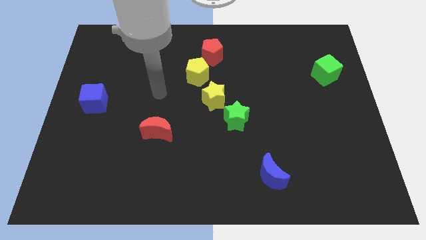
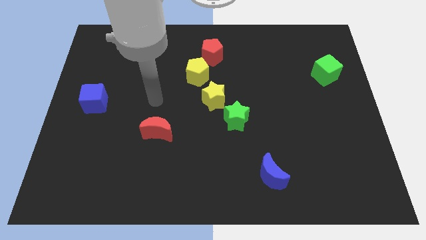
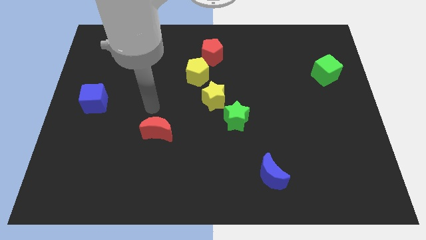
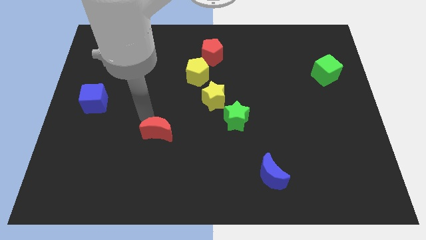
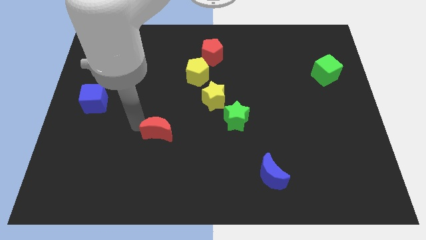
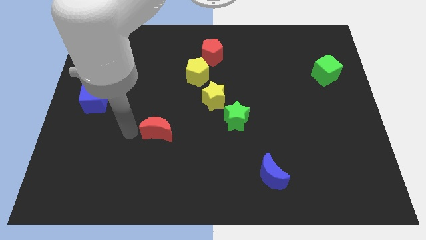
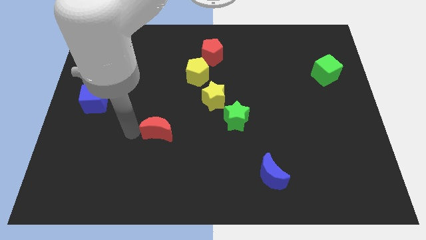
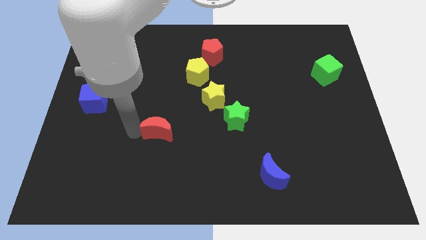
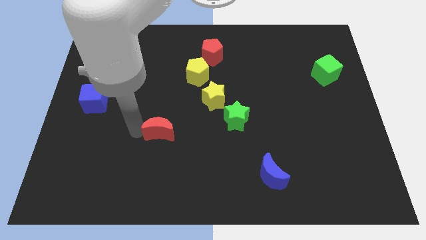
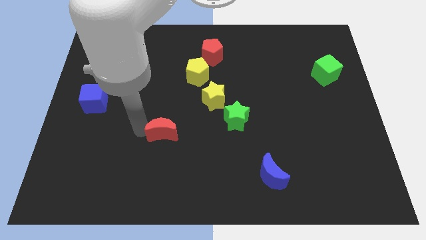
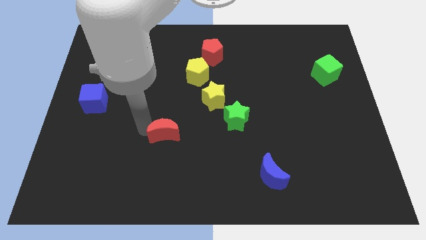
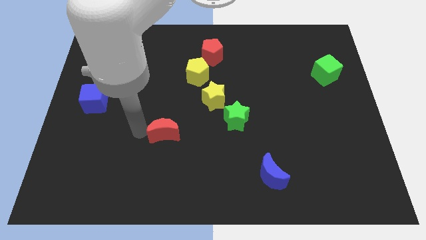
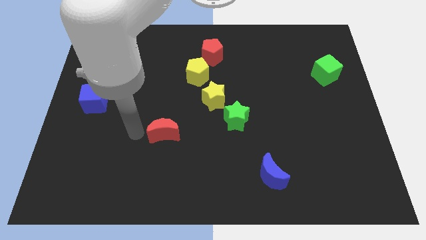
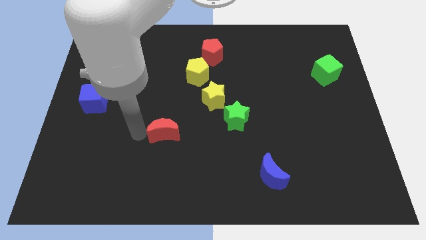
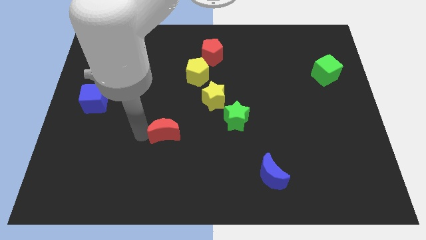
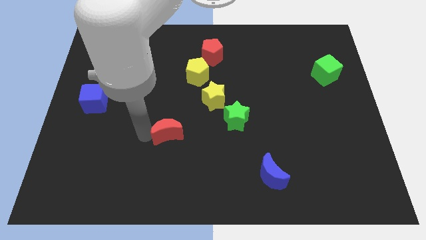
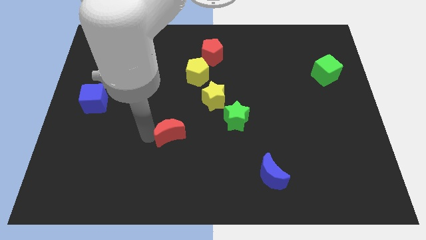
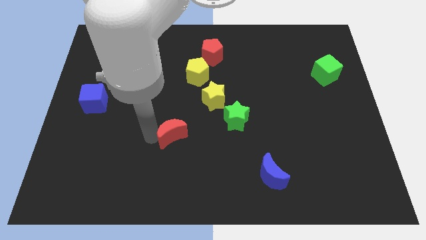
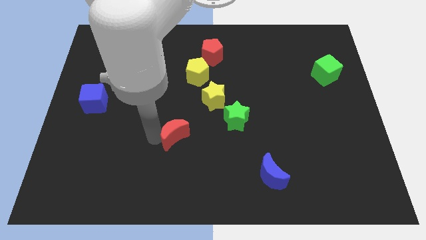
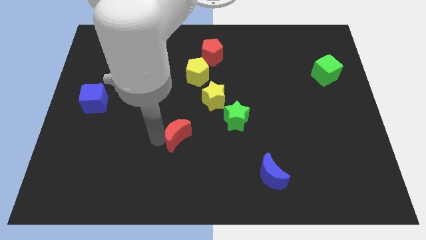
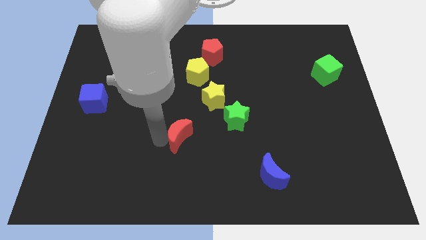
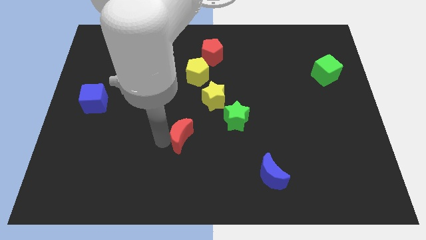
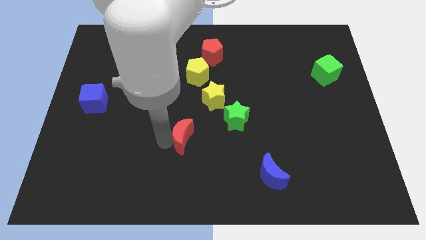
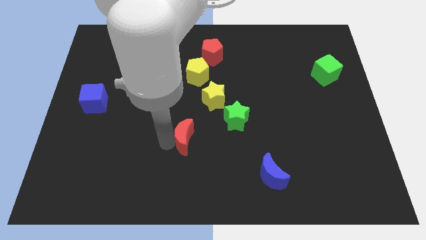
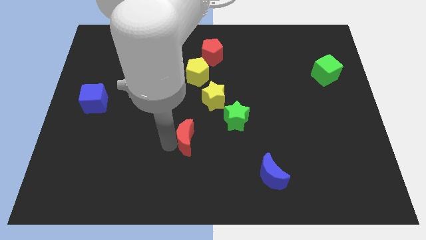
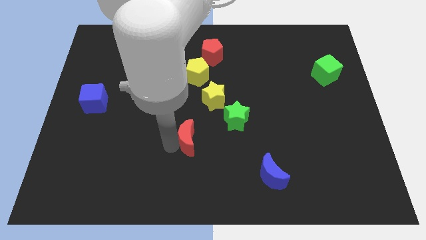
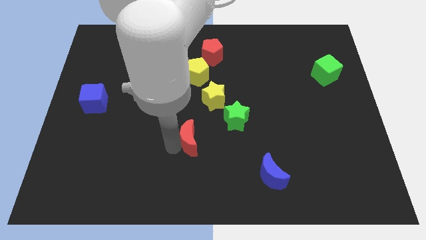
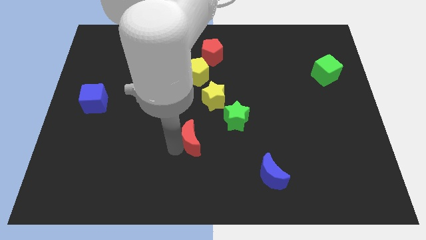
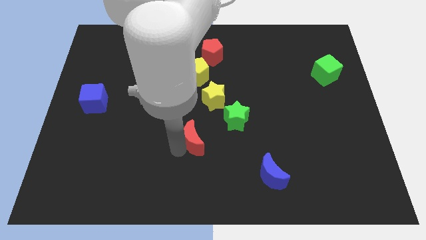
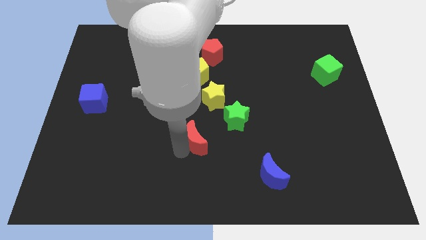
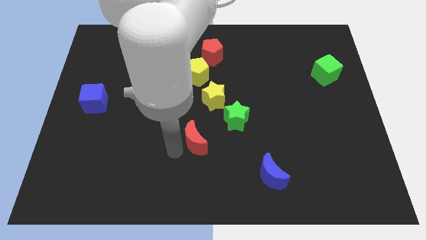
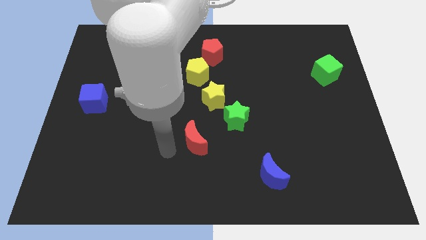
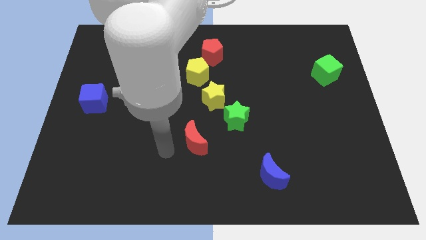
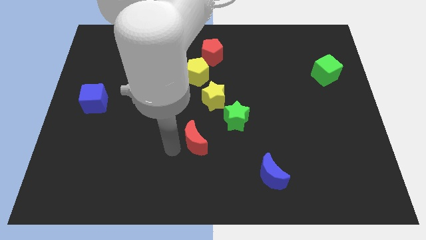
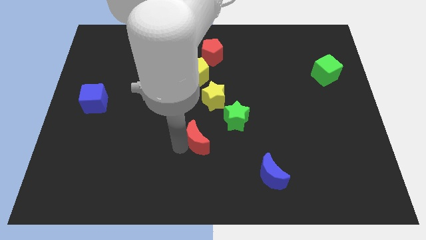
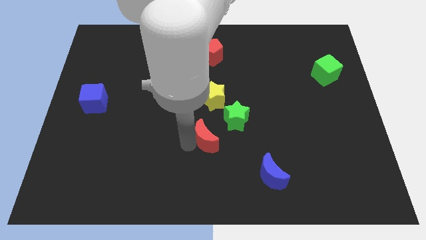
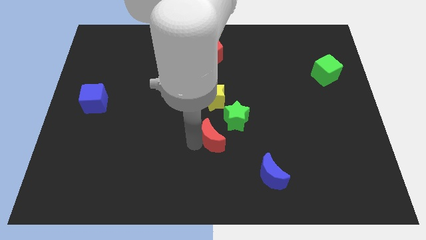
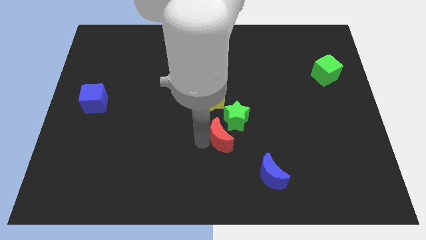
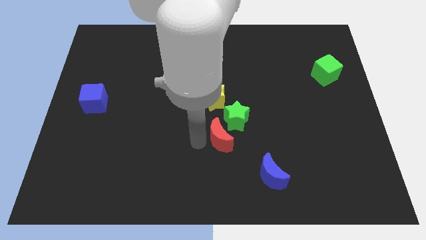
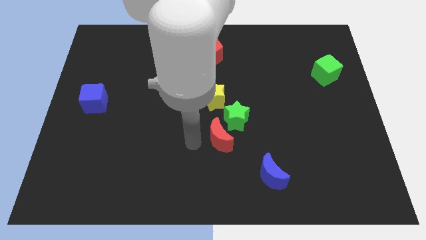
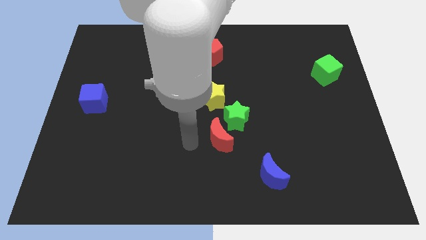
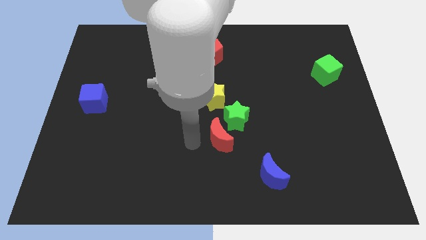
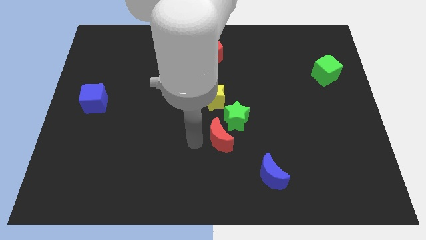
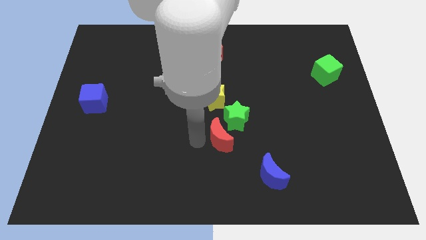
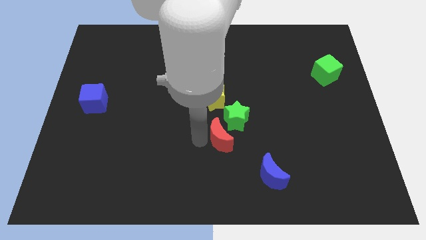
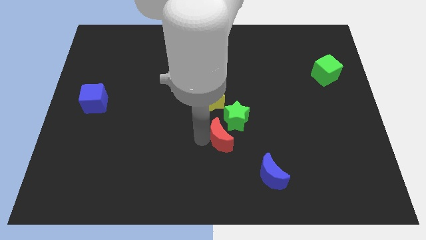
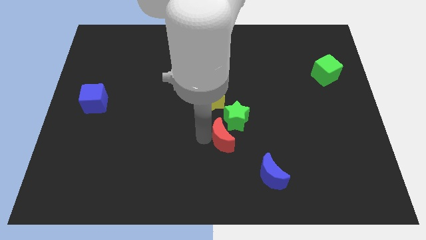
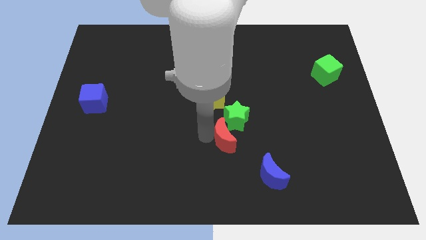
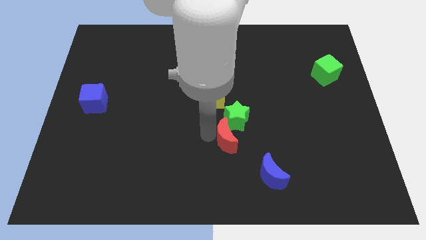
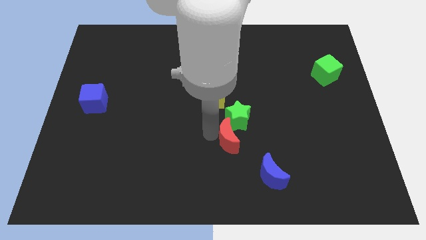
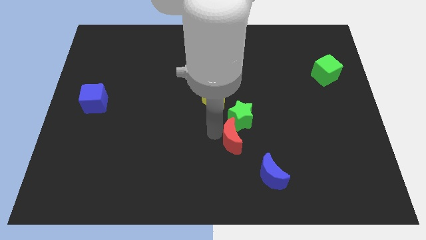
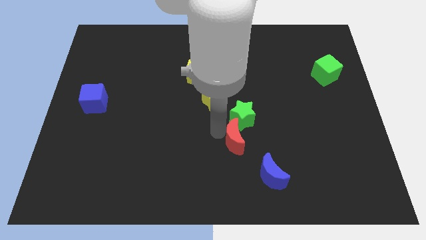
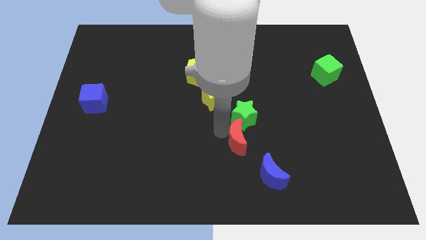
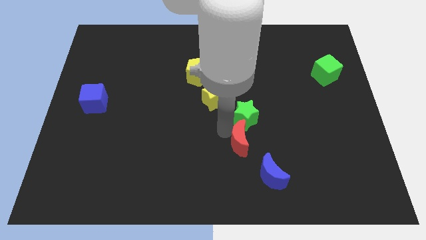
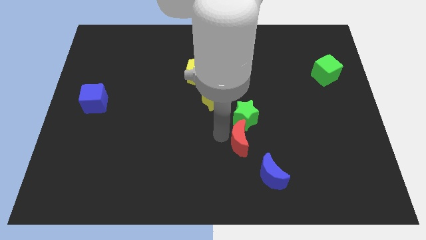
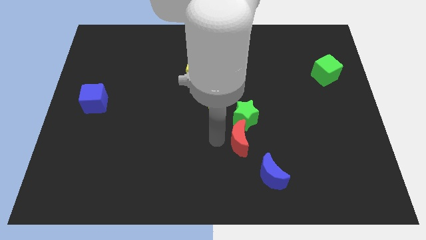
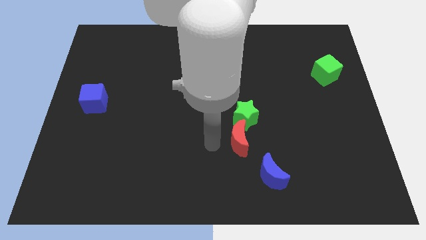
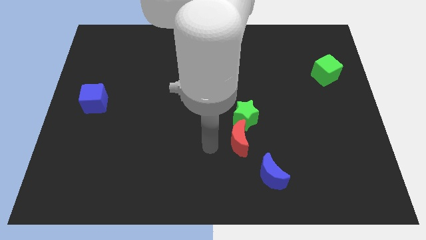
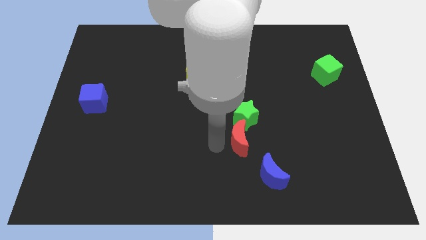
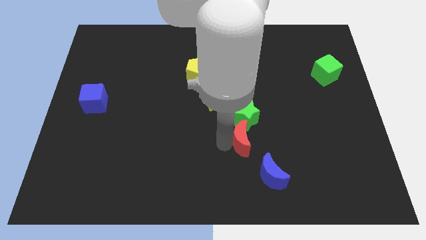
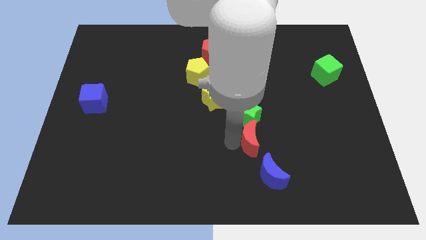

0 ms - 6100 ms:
slide the red moon right

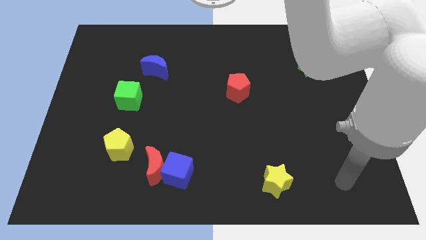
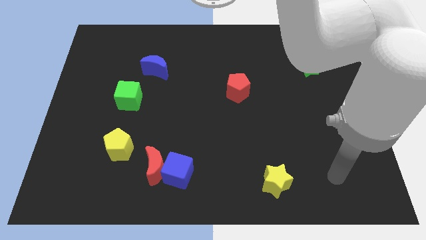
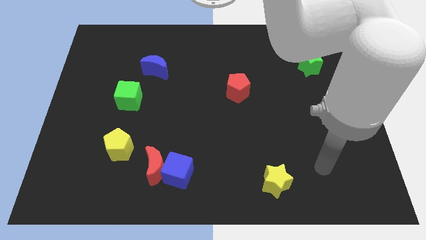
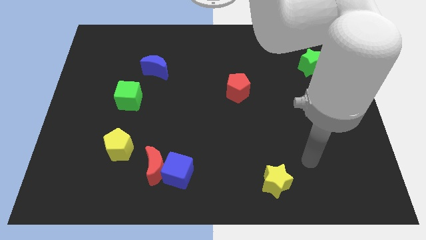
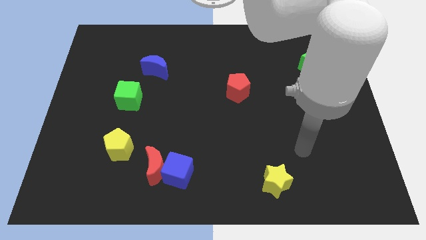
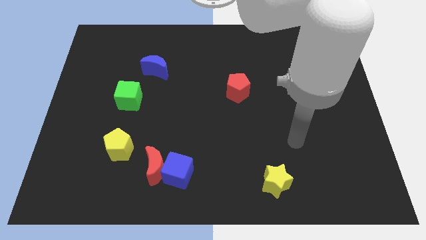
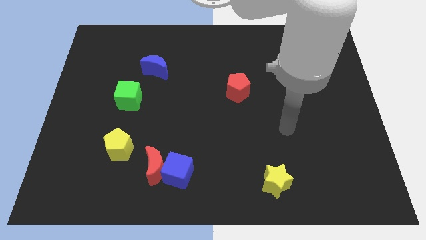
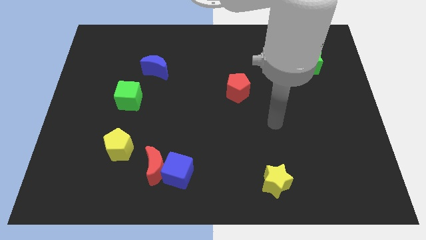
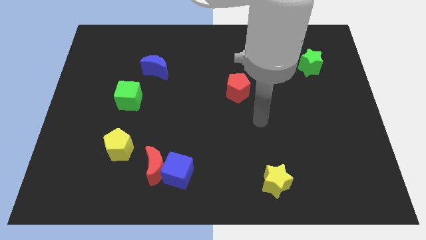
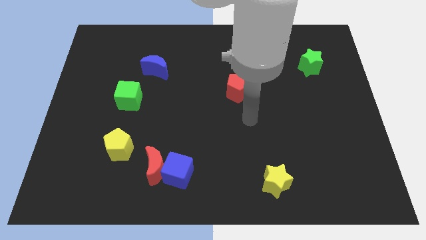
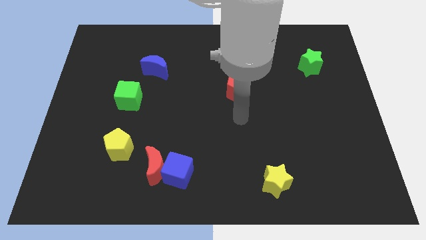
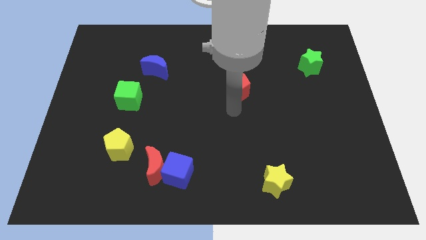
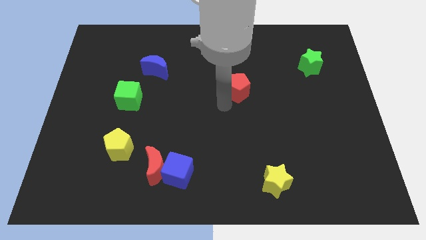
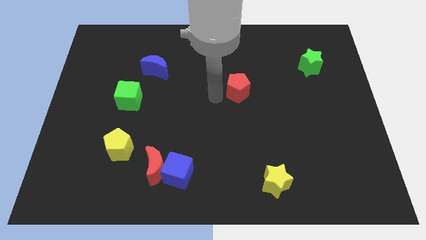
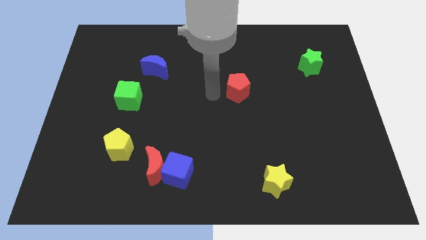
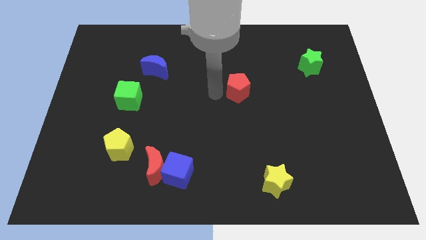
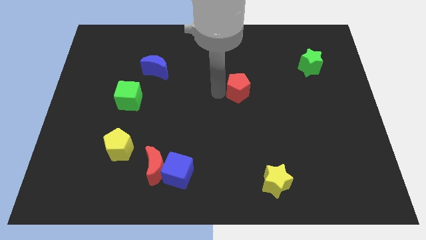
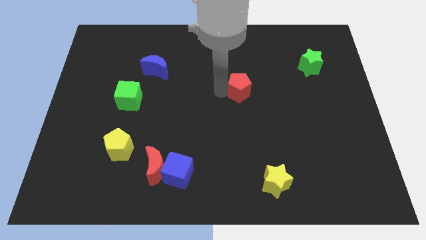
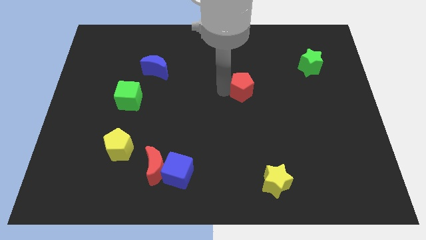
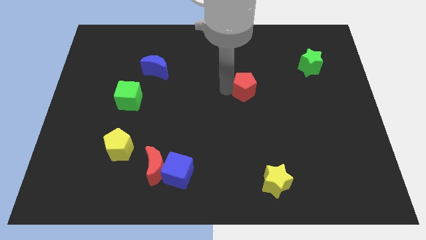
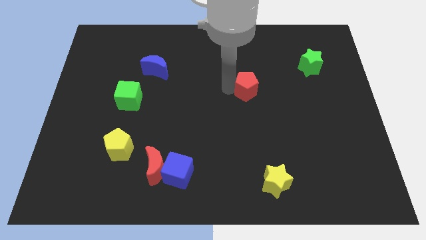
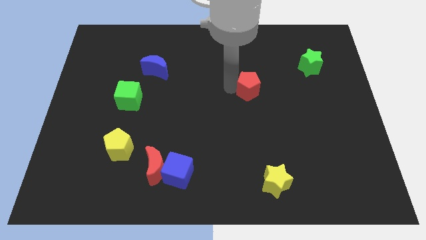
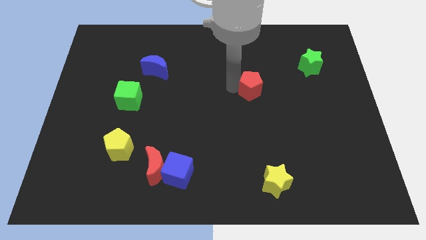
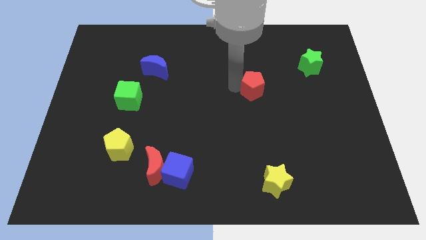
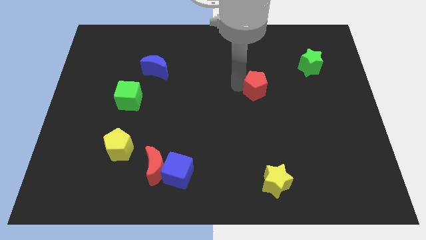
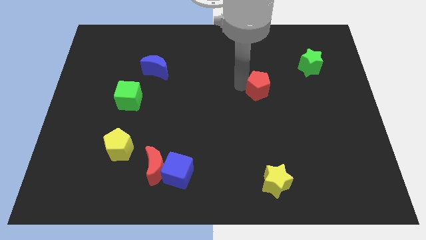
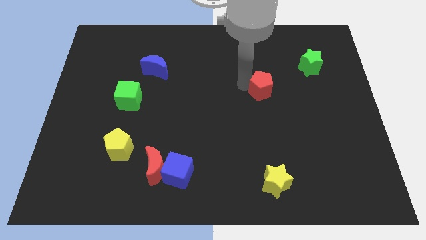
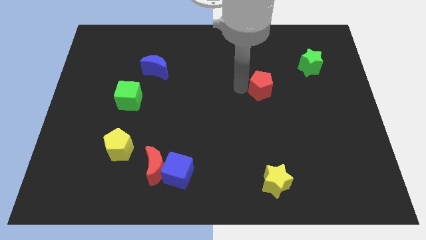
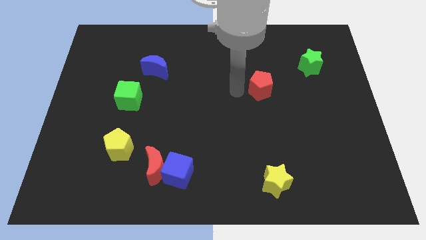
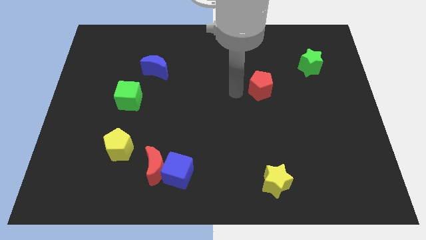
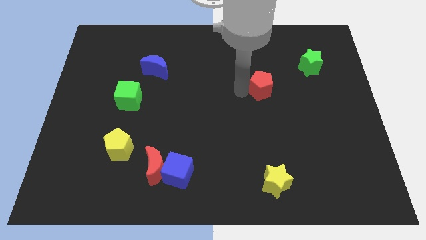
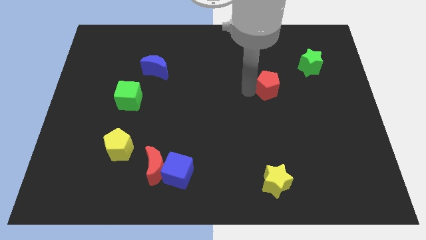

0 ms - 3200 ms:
move the red pentagon right a little bit
